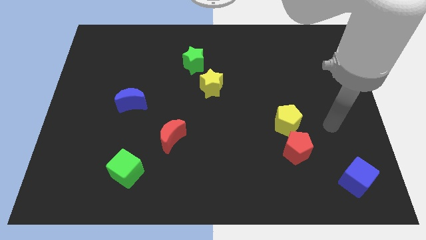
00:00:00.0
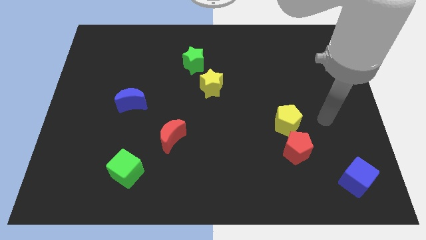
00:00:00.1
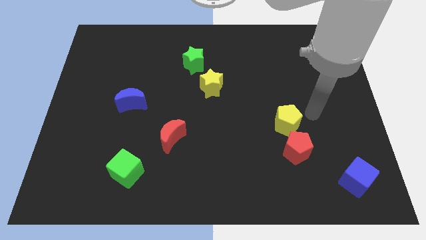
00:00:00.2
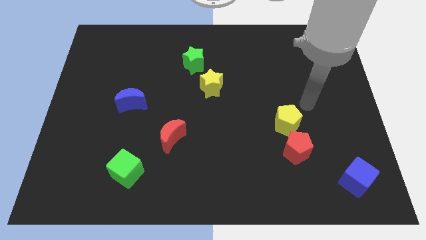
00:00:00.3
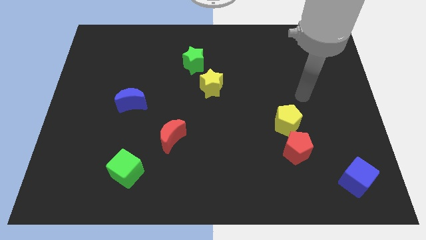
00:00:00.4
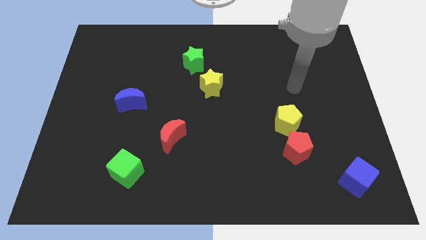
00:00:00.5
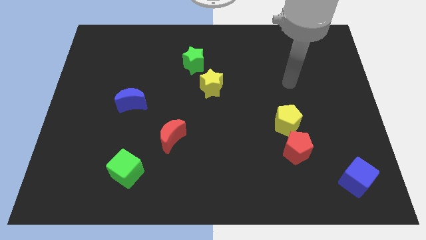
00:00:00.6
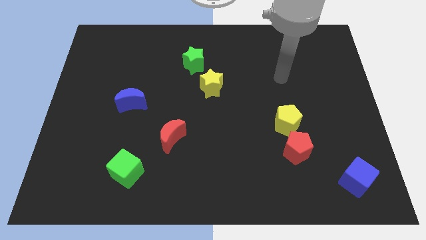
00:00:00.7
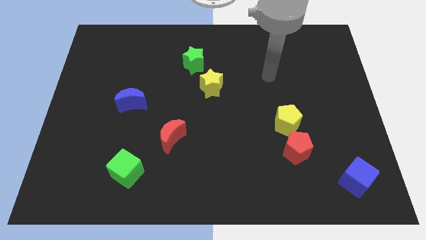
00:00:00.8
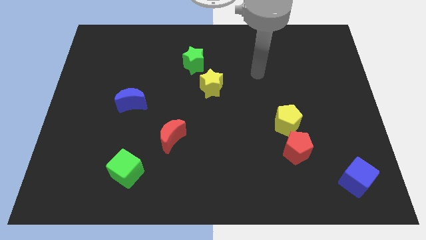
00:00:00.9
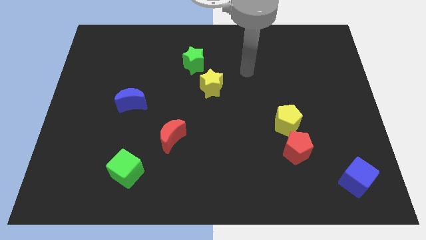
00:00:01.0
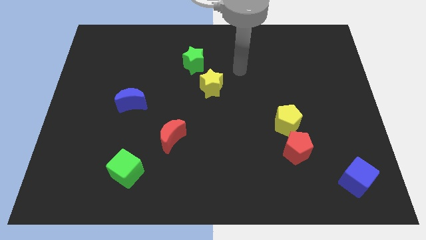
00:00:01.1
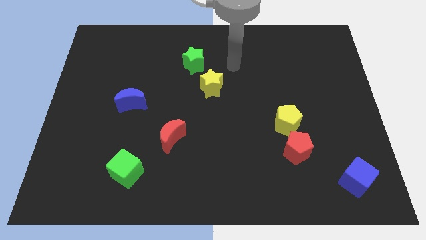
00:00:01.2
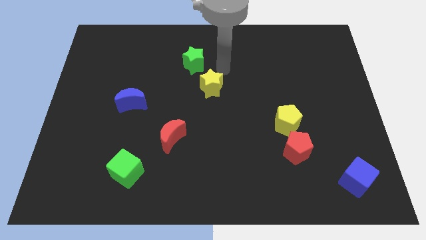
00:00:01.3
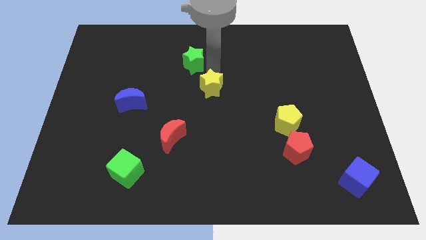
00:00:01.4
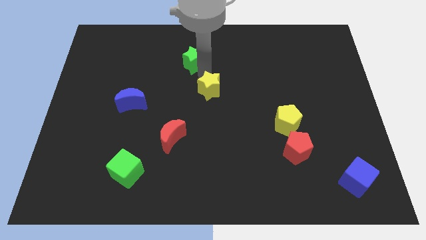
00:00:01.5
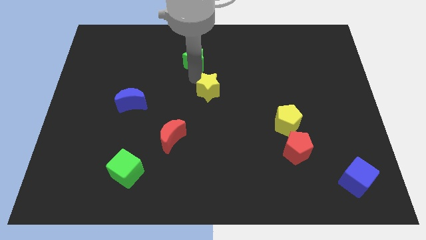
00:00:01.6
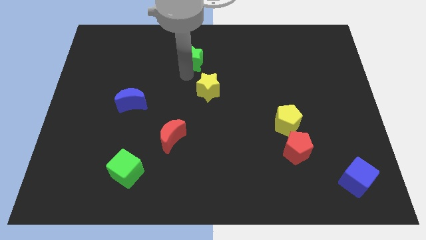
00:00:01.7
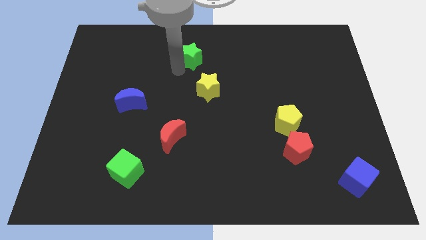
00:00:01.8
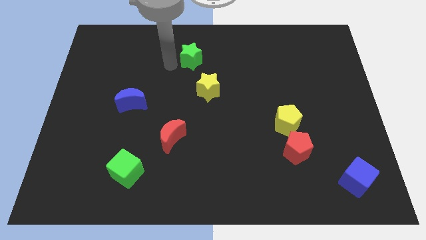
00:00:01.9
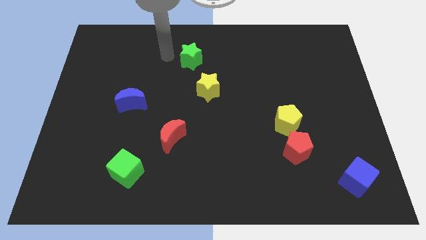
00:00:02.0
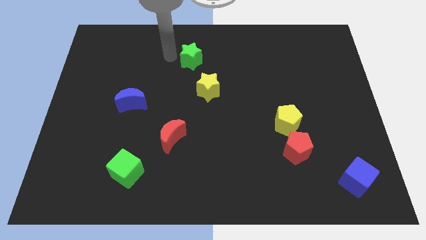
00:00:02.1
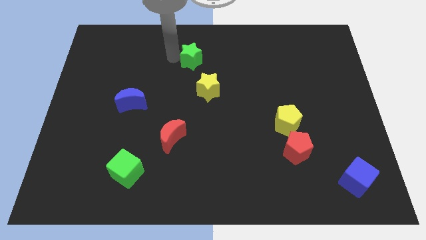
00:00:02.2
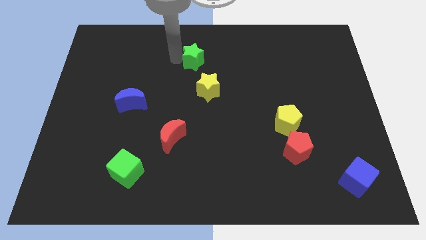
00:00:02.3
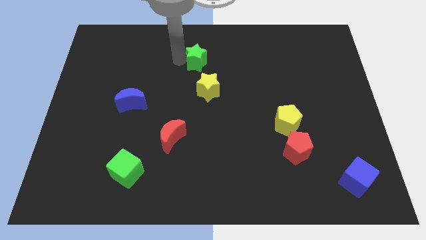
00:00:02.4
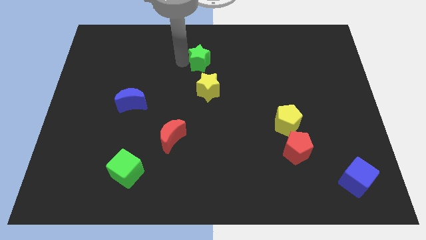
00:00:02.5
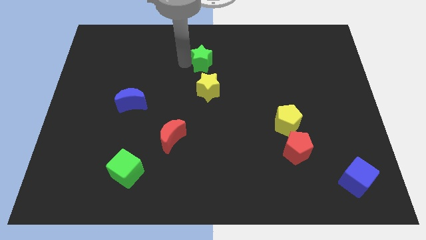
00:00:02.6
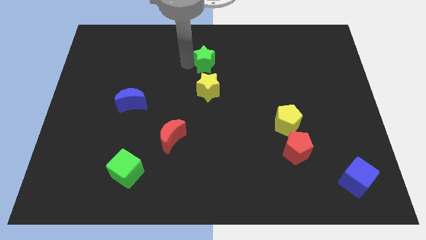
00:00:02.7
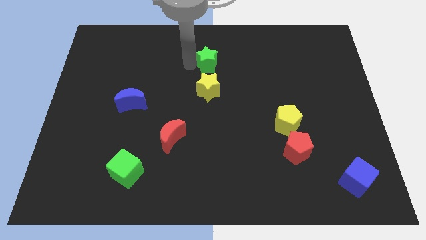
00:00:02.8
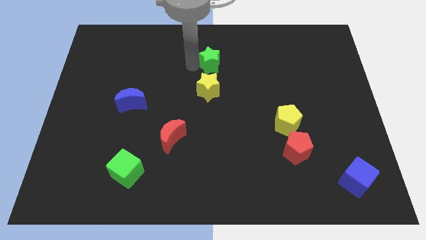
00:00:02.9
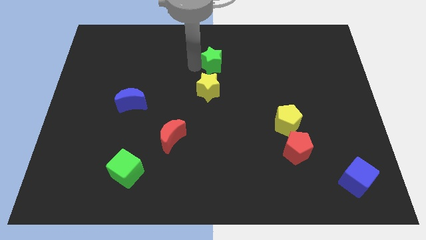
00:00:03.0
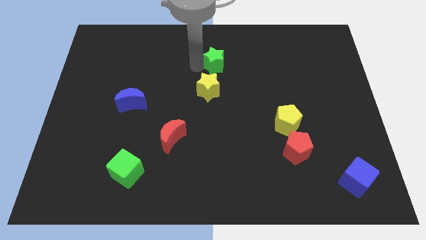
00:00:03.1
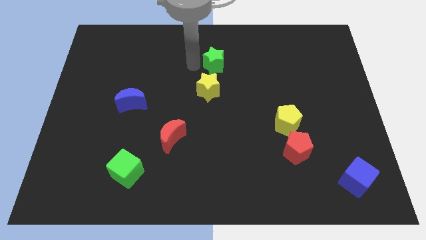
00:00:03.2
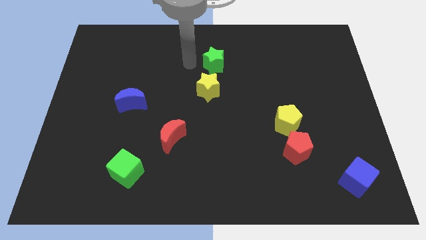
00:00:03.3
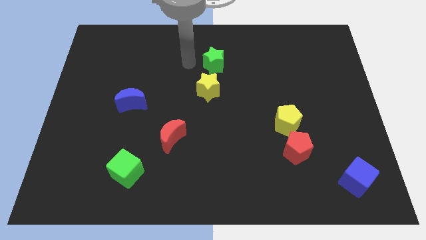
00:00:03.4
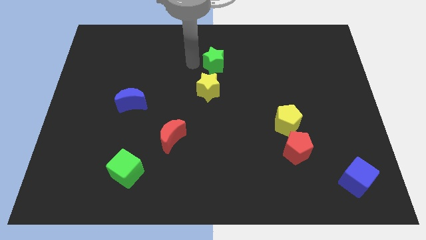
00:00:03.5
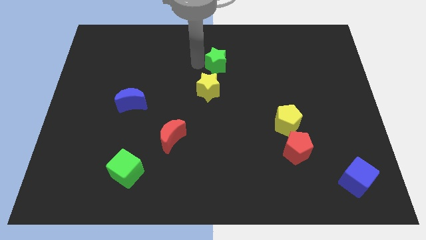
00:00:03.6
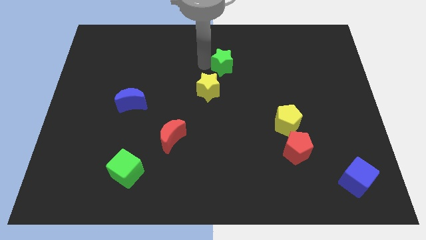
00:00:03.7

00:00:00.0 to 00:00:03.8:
move the green star a little to the right

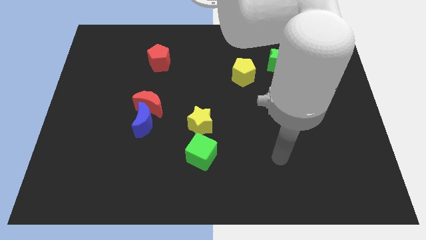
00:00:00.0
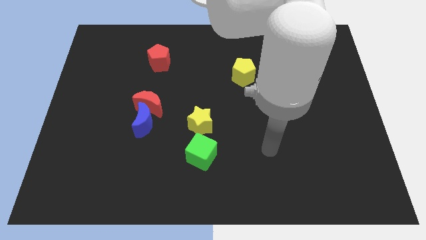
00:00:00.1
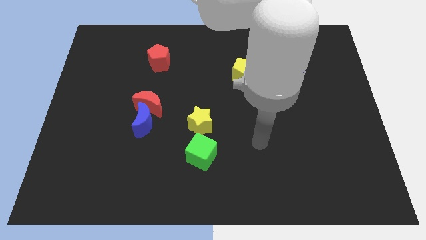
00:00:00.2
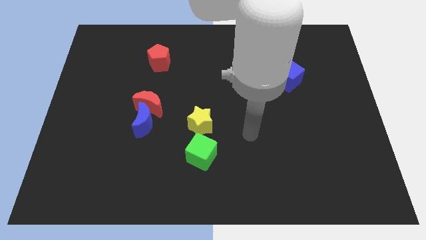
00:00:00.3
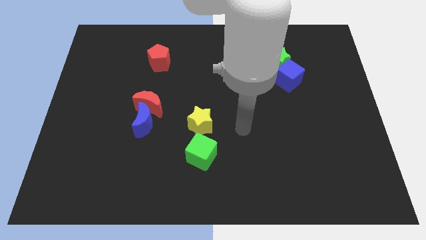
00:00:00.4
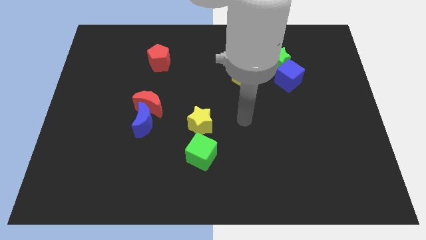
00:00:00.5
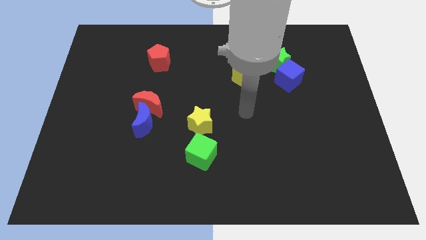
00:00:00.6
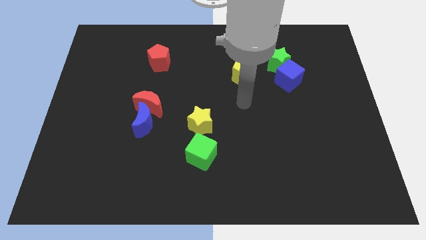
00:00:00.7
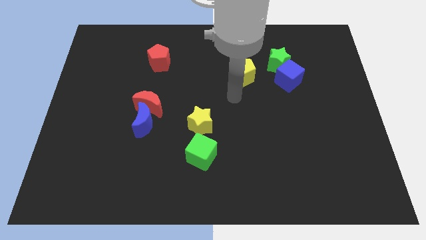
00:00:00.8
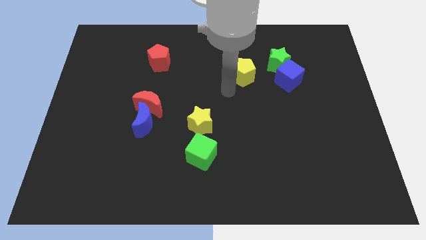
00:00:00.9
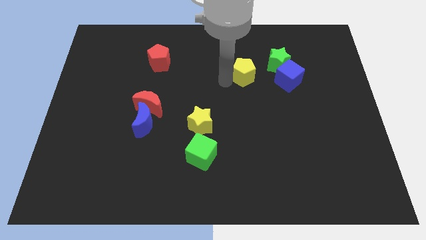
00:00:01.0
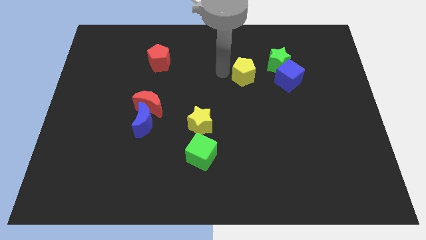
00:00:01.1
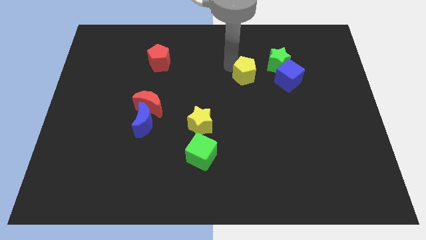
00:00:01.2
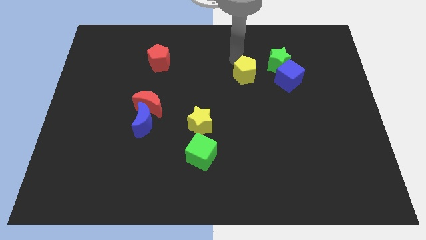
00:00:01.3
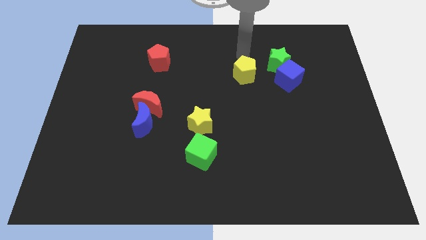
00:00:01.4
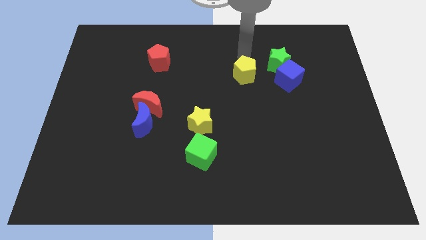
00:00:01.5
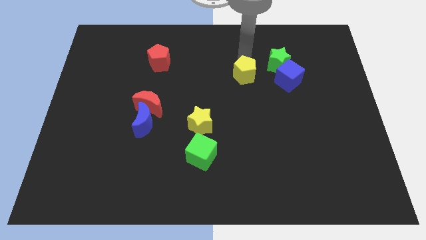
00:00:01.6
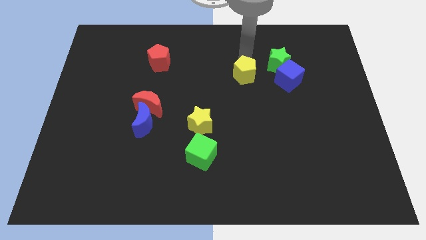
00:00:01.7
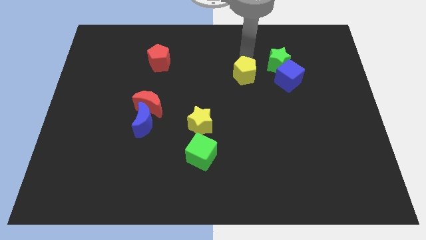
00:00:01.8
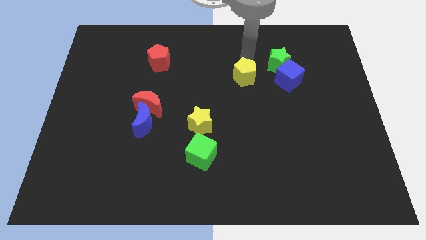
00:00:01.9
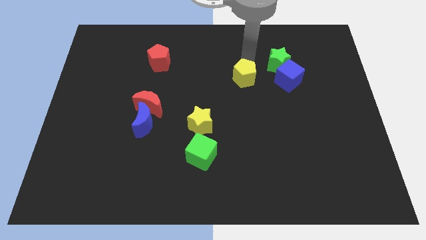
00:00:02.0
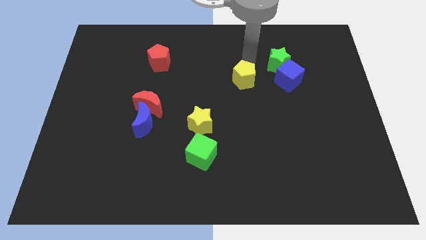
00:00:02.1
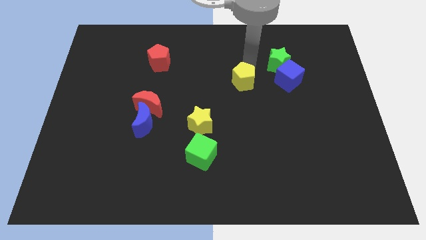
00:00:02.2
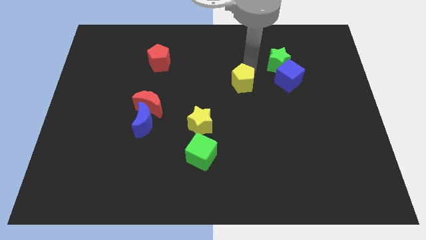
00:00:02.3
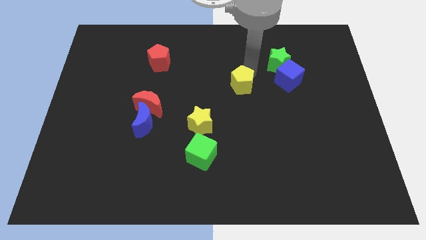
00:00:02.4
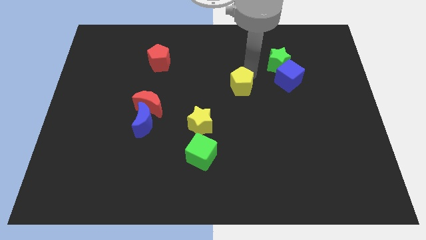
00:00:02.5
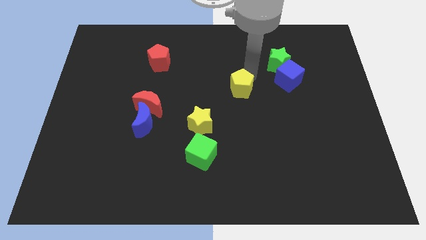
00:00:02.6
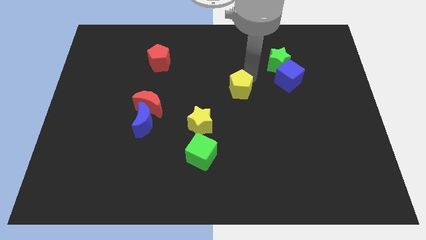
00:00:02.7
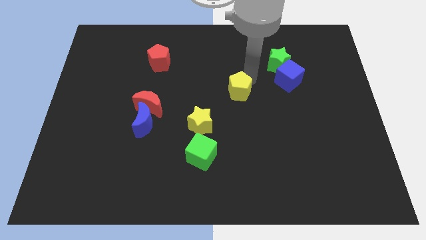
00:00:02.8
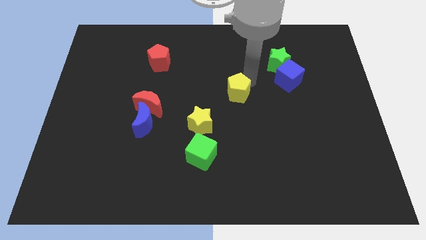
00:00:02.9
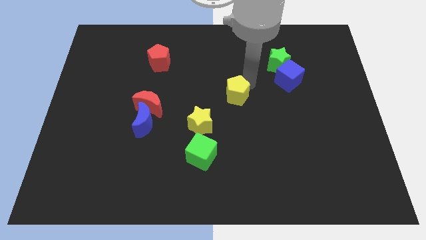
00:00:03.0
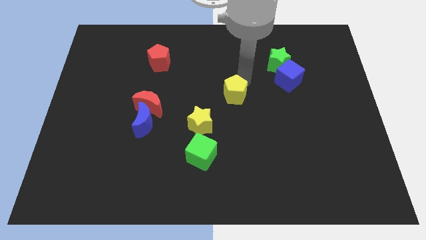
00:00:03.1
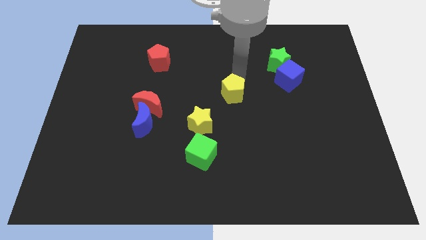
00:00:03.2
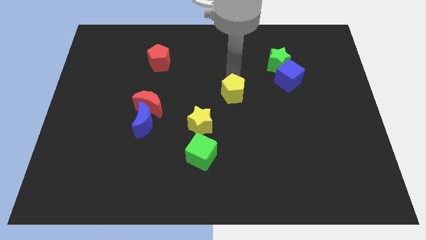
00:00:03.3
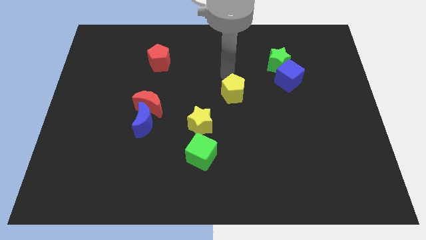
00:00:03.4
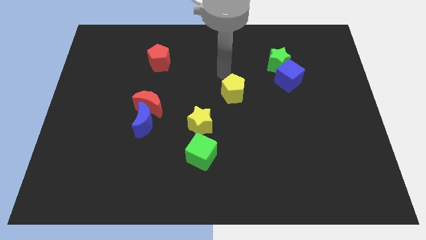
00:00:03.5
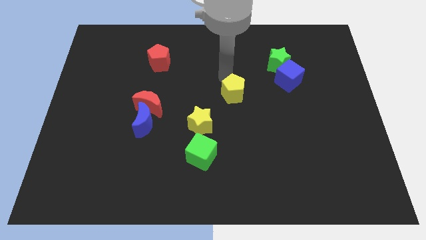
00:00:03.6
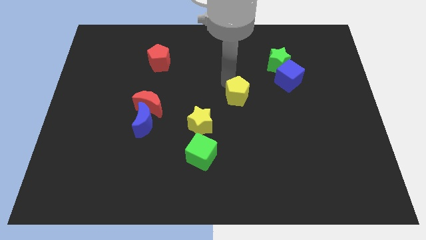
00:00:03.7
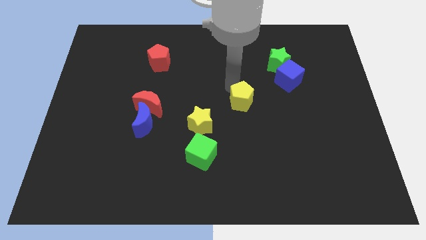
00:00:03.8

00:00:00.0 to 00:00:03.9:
slightly move the yellow pentagon downwards

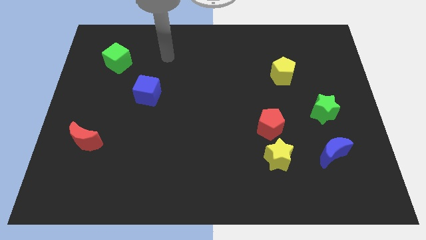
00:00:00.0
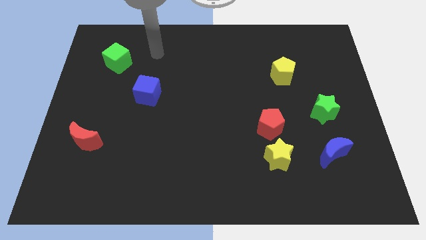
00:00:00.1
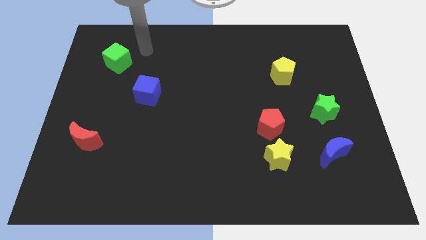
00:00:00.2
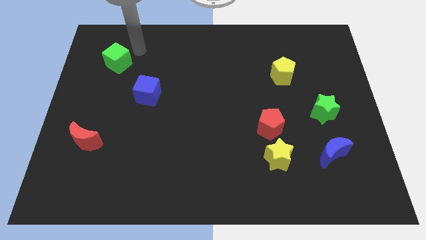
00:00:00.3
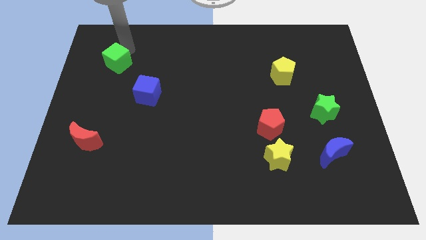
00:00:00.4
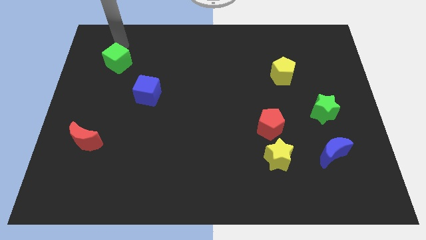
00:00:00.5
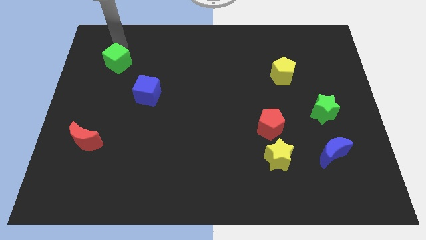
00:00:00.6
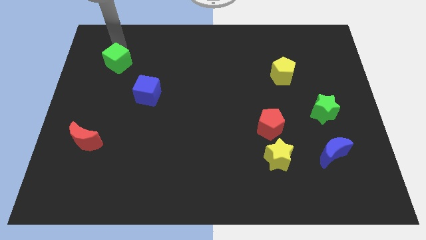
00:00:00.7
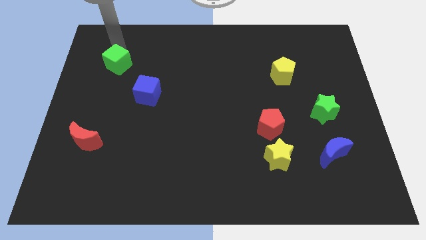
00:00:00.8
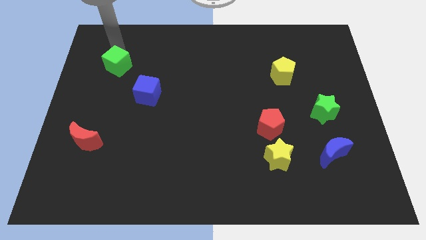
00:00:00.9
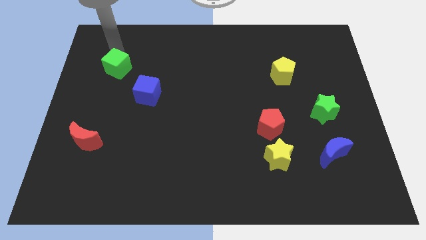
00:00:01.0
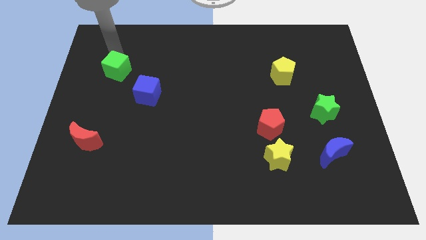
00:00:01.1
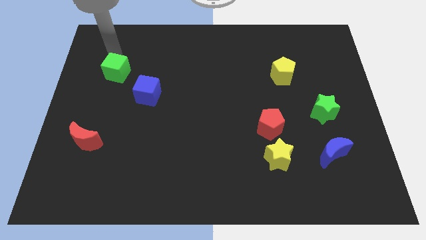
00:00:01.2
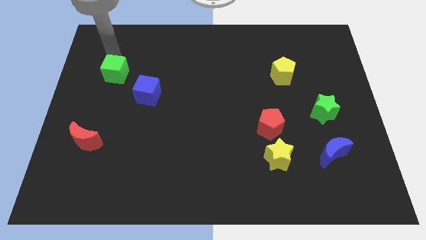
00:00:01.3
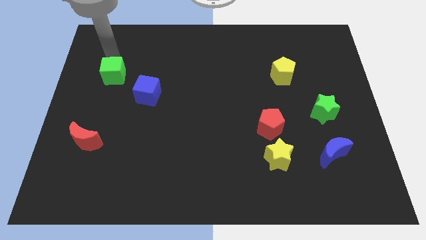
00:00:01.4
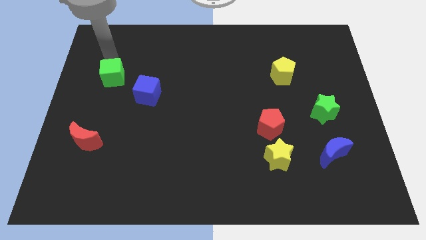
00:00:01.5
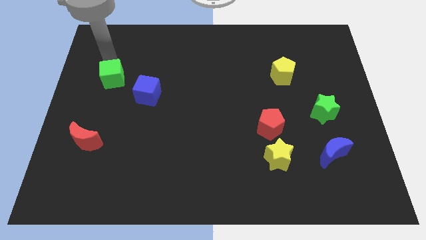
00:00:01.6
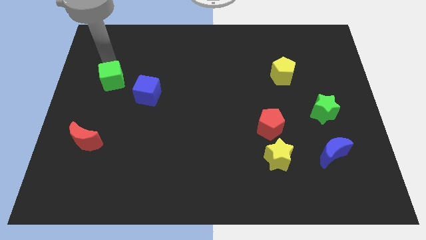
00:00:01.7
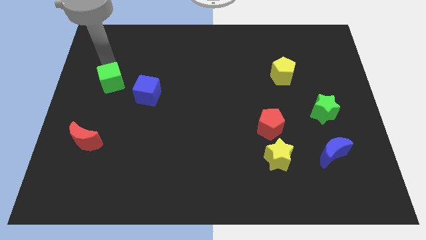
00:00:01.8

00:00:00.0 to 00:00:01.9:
push the green cube a bit down
